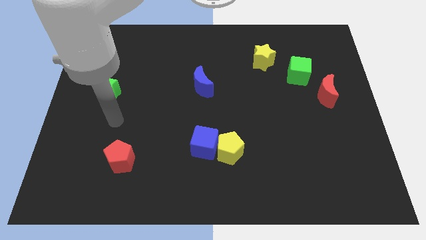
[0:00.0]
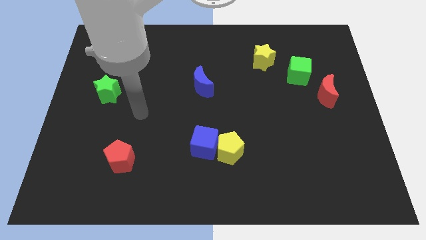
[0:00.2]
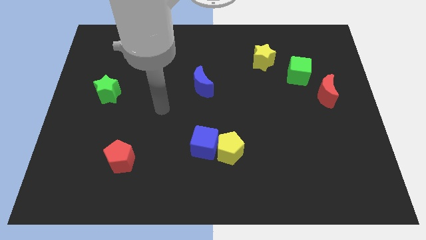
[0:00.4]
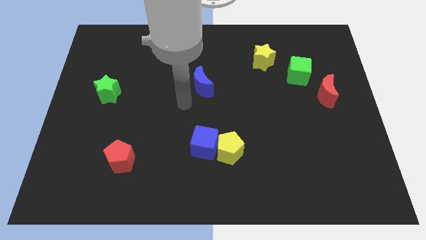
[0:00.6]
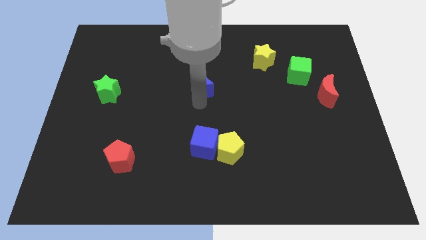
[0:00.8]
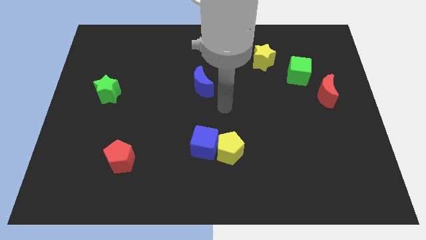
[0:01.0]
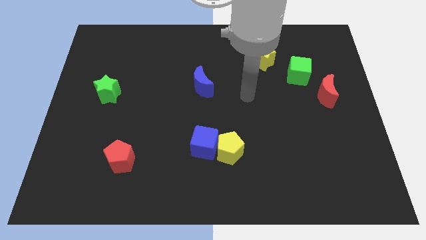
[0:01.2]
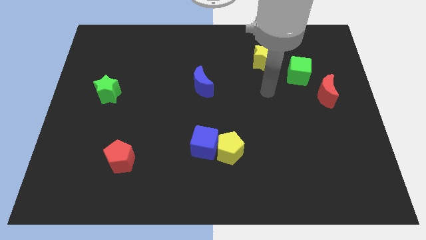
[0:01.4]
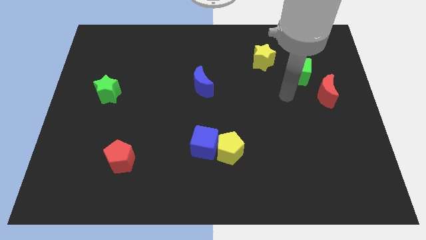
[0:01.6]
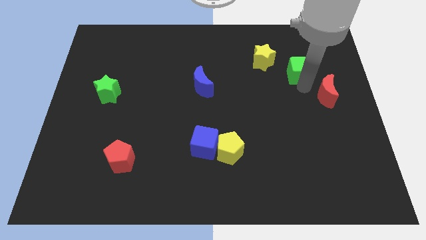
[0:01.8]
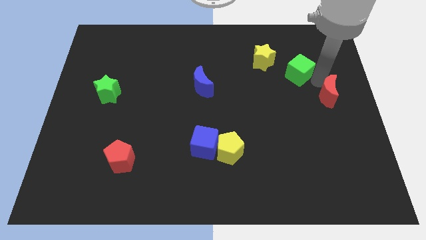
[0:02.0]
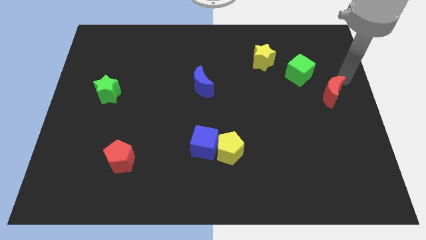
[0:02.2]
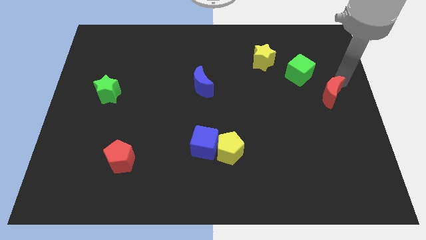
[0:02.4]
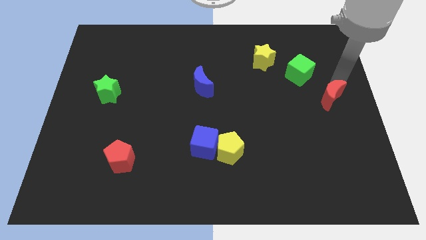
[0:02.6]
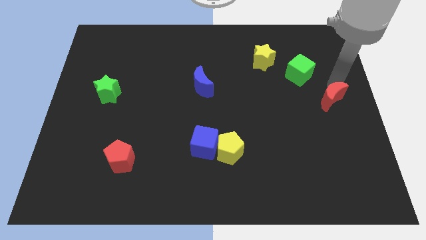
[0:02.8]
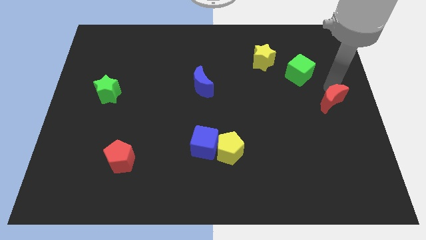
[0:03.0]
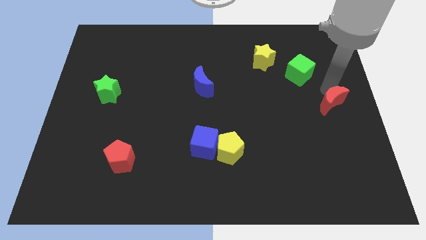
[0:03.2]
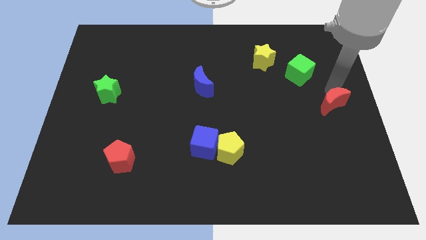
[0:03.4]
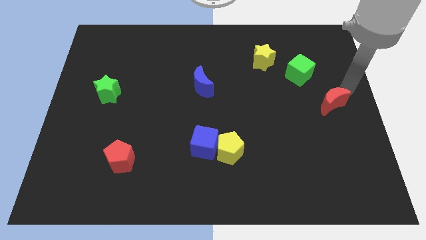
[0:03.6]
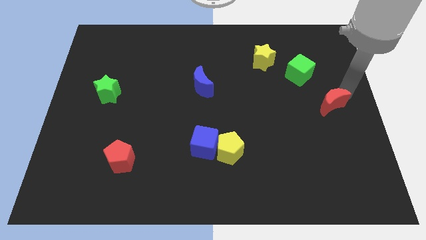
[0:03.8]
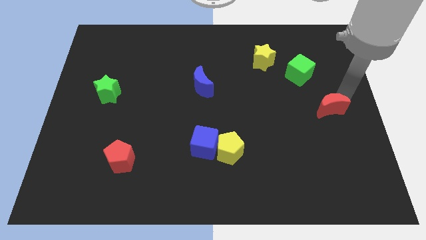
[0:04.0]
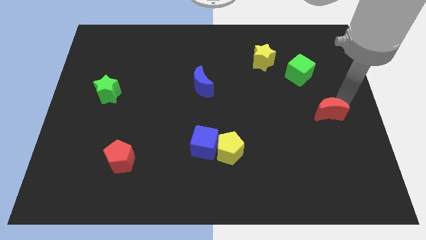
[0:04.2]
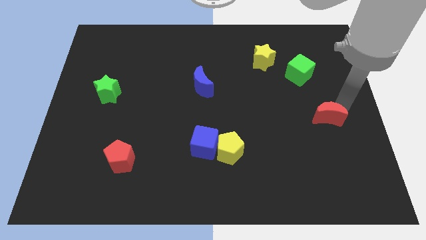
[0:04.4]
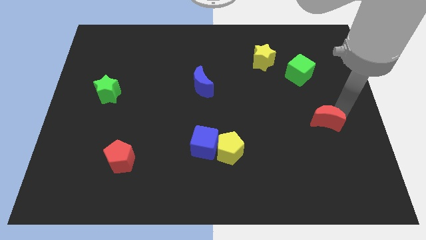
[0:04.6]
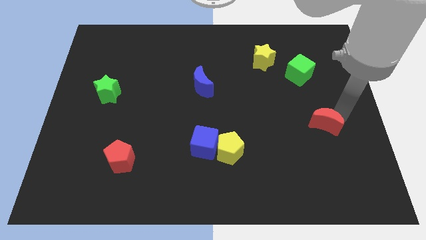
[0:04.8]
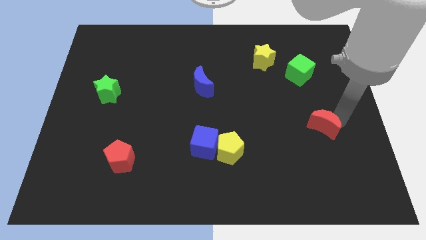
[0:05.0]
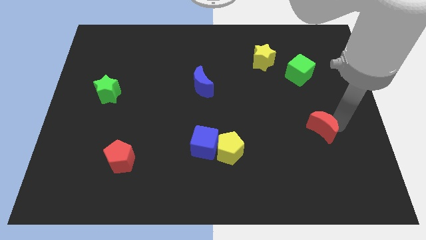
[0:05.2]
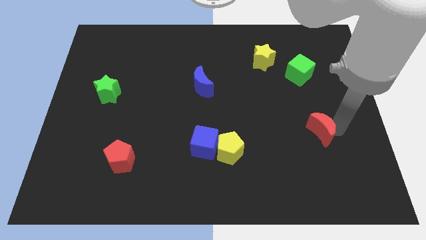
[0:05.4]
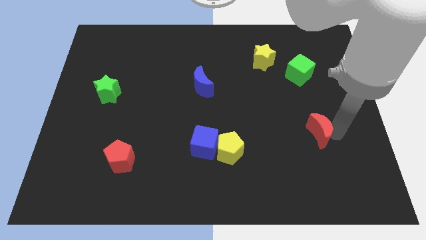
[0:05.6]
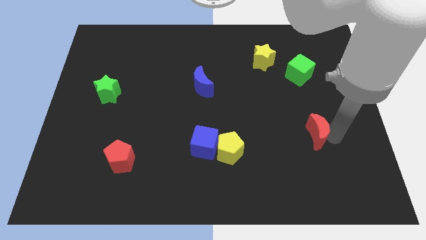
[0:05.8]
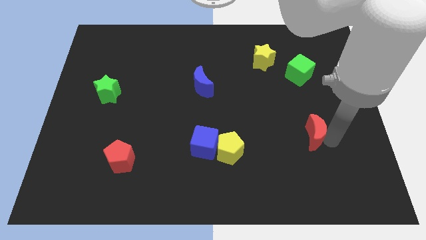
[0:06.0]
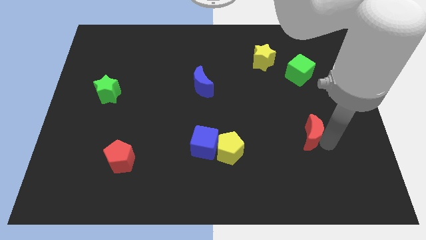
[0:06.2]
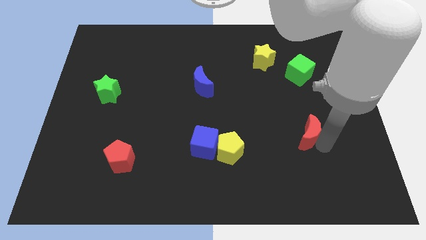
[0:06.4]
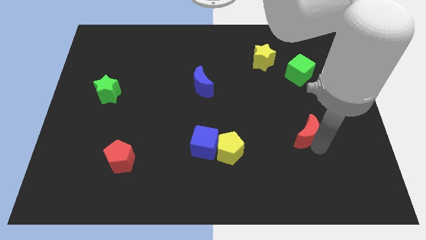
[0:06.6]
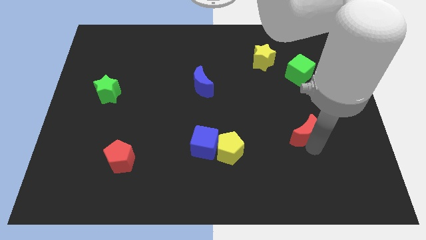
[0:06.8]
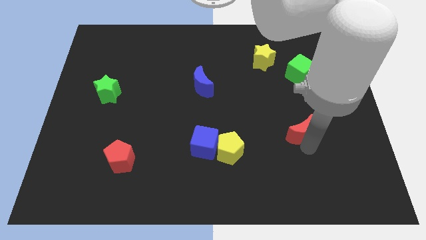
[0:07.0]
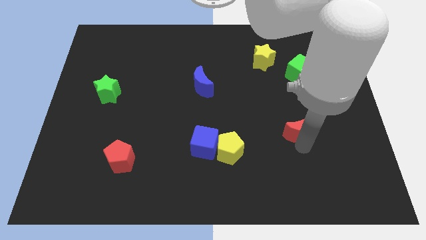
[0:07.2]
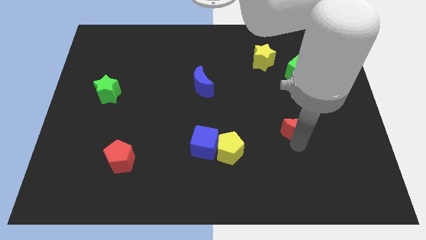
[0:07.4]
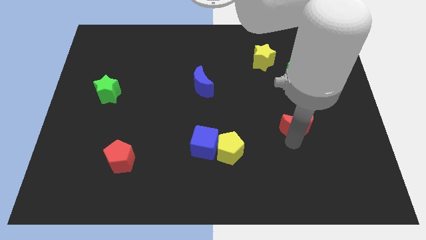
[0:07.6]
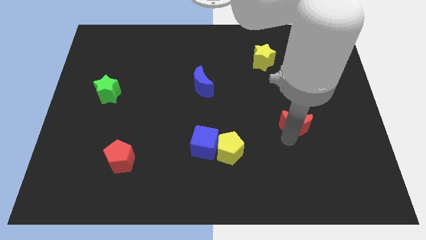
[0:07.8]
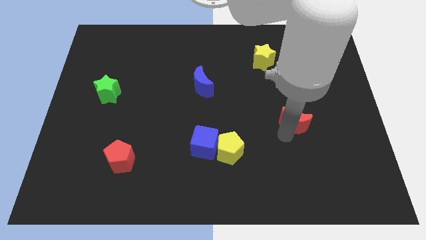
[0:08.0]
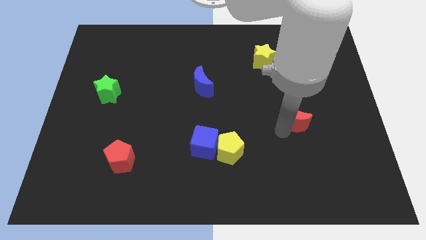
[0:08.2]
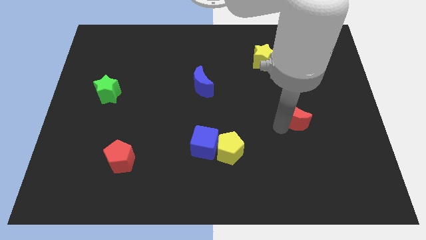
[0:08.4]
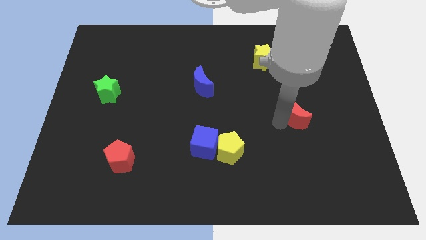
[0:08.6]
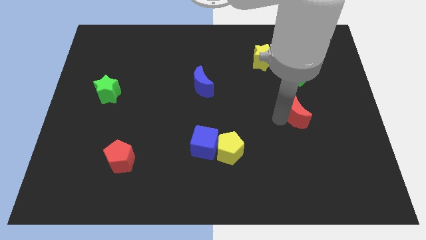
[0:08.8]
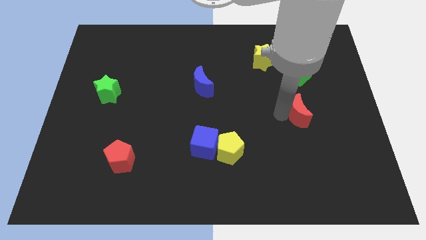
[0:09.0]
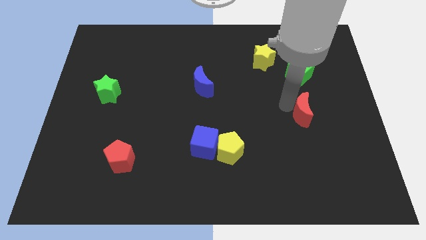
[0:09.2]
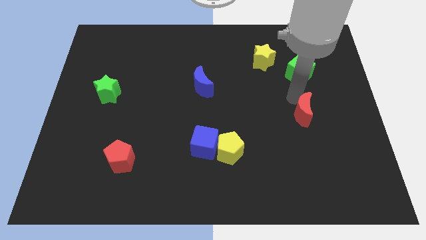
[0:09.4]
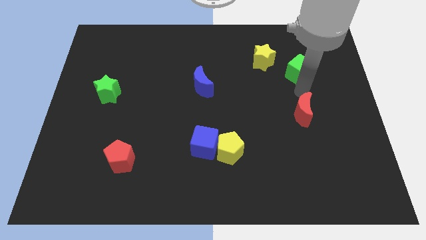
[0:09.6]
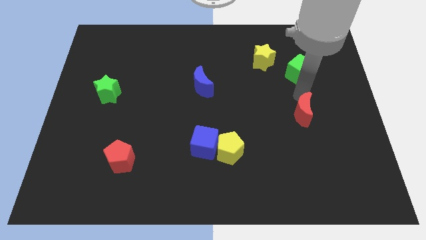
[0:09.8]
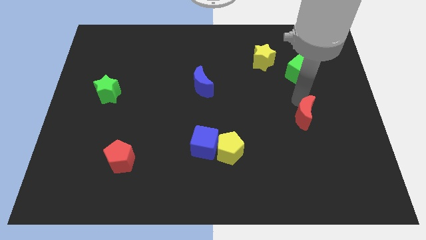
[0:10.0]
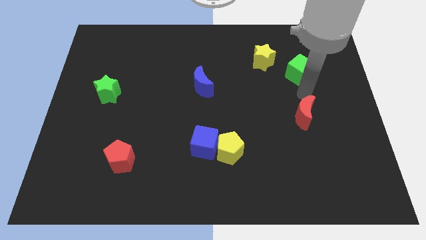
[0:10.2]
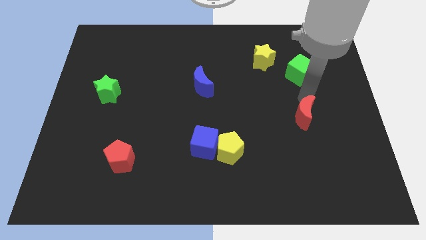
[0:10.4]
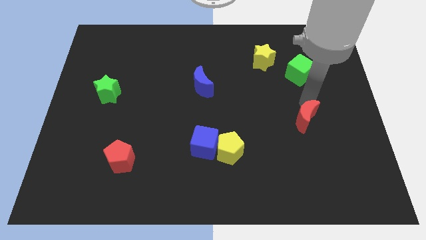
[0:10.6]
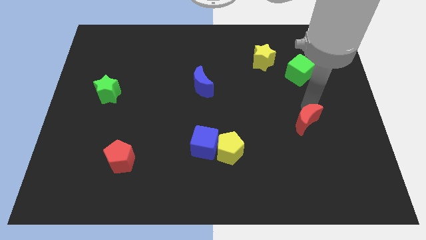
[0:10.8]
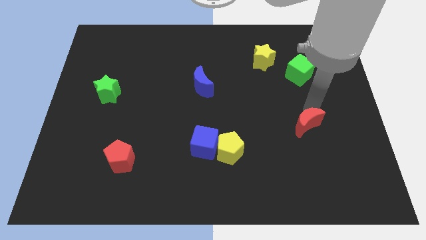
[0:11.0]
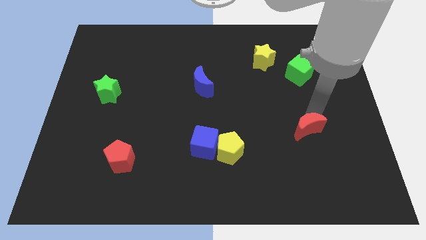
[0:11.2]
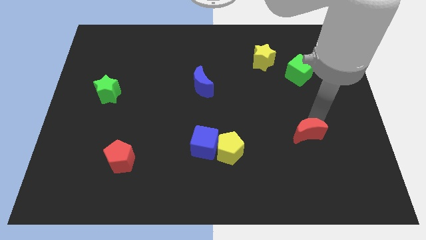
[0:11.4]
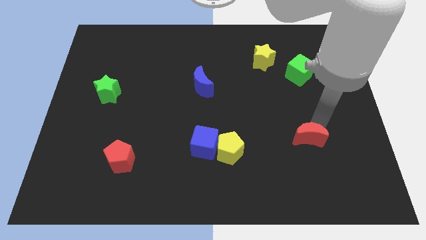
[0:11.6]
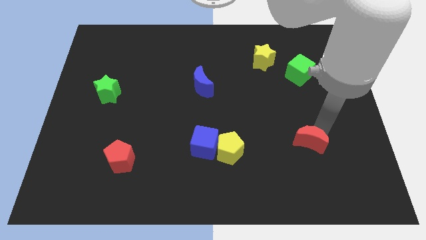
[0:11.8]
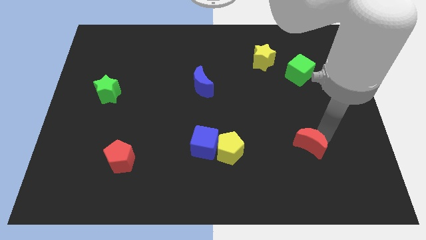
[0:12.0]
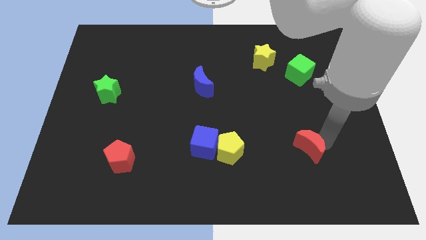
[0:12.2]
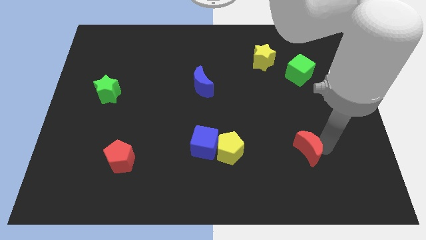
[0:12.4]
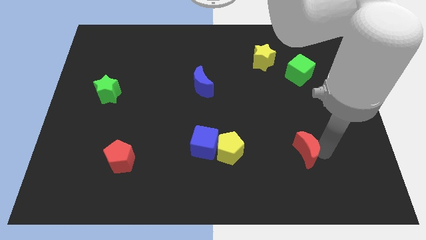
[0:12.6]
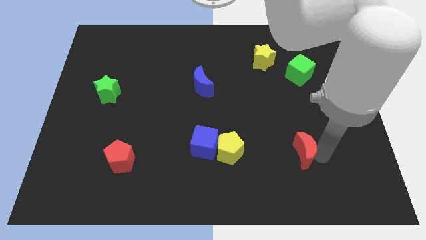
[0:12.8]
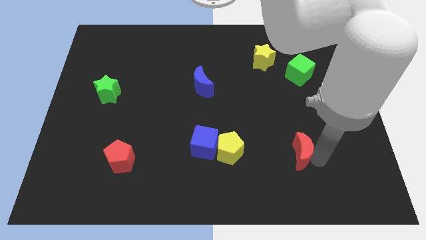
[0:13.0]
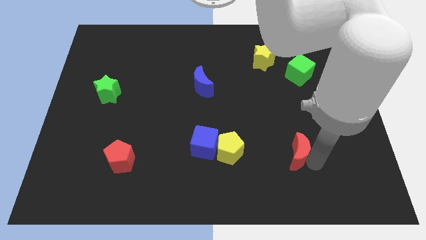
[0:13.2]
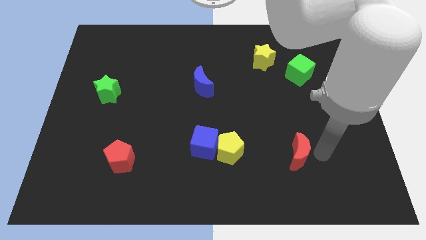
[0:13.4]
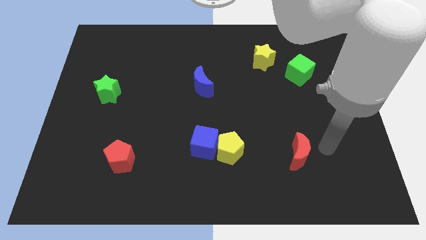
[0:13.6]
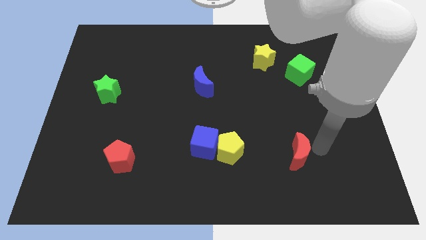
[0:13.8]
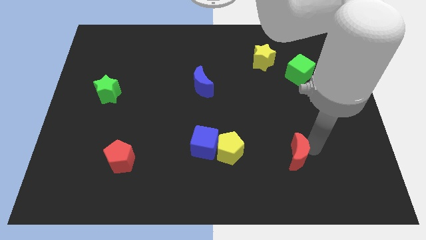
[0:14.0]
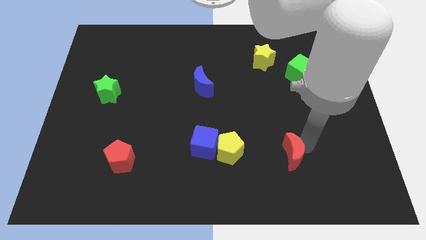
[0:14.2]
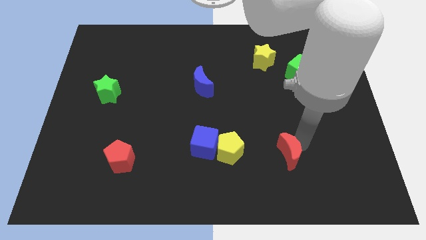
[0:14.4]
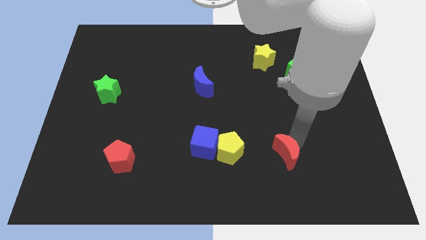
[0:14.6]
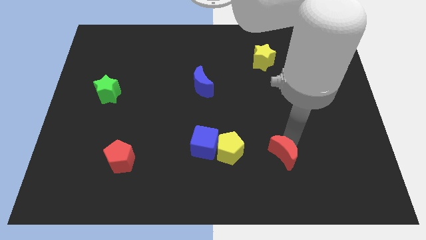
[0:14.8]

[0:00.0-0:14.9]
push the red moon downwards and then left

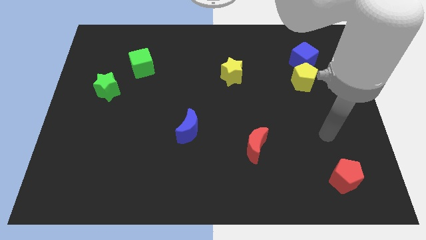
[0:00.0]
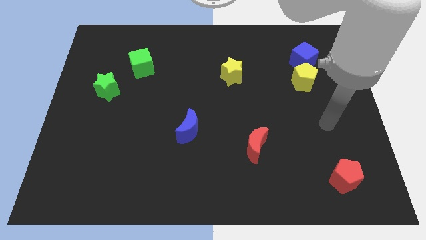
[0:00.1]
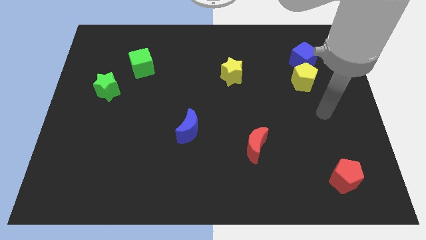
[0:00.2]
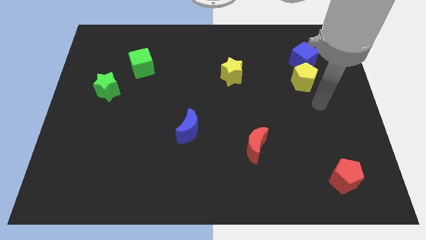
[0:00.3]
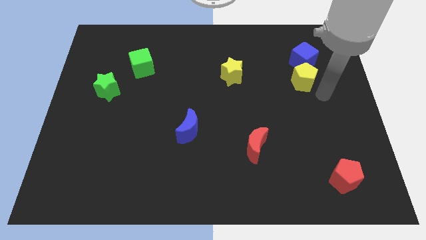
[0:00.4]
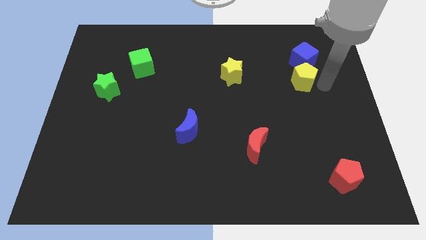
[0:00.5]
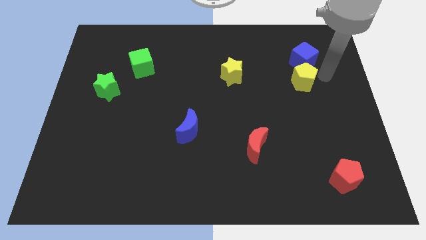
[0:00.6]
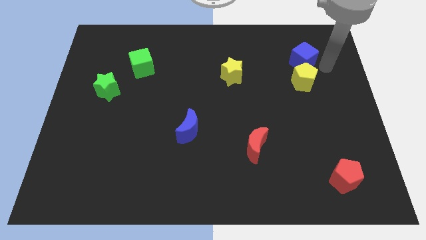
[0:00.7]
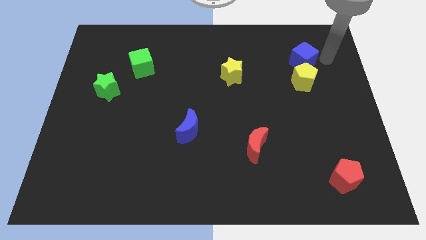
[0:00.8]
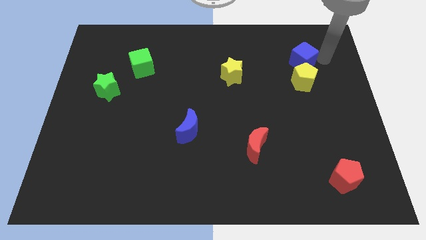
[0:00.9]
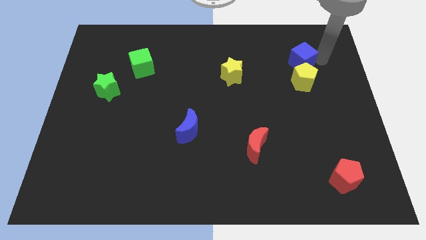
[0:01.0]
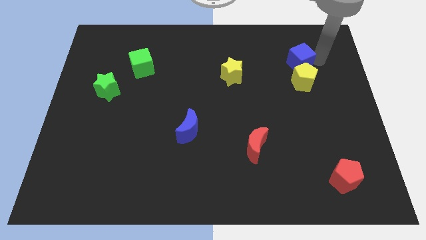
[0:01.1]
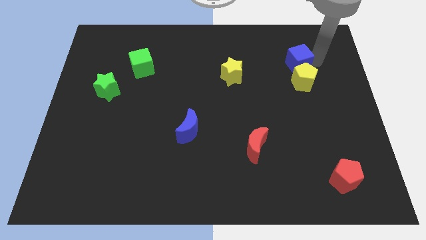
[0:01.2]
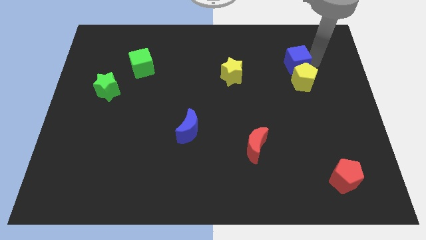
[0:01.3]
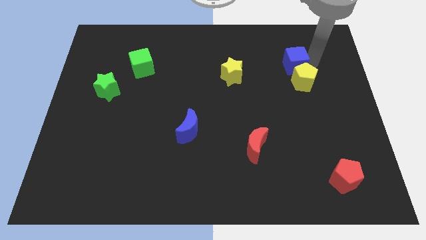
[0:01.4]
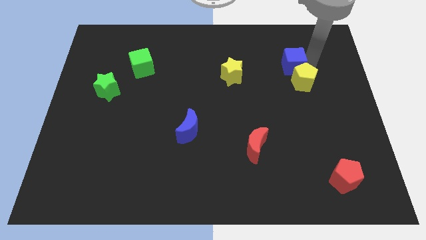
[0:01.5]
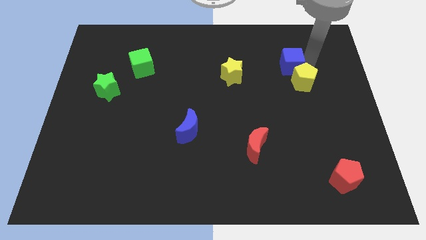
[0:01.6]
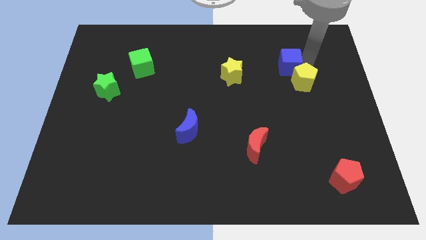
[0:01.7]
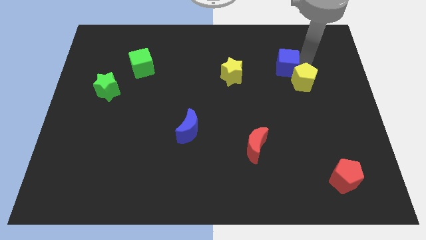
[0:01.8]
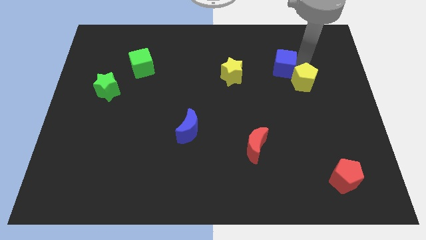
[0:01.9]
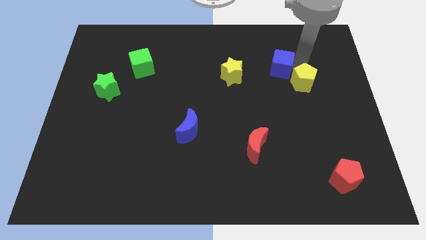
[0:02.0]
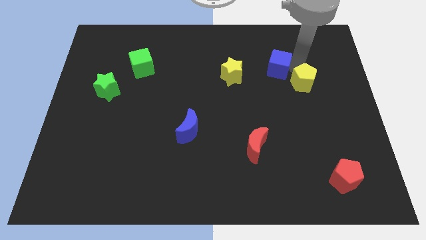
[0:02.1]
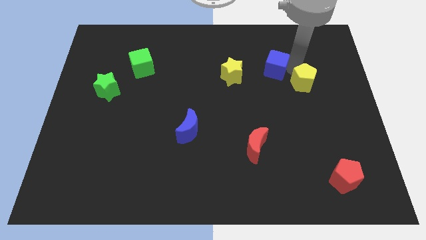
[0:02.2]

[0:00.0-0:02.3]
move the blue cube to the left a little bit
